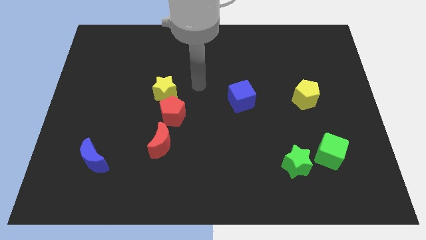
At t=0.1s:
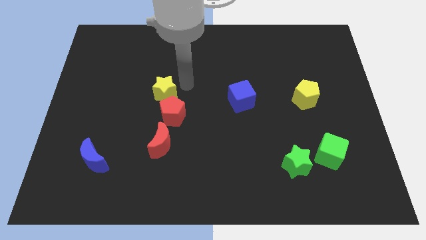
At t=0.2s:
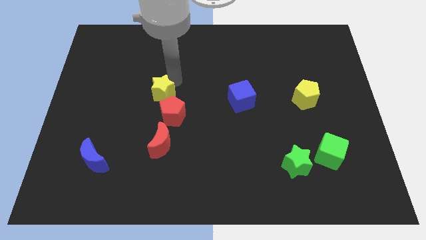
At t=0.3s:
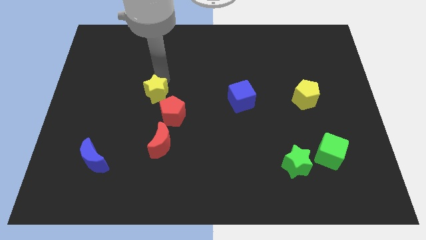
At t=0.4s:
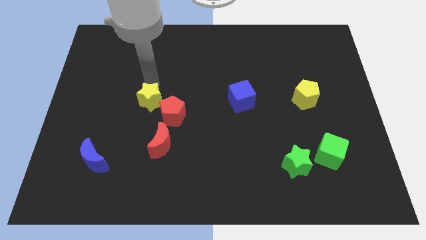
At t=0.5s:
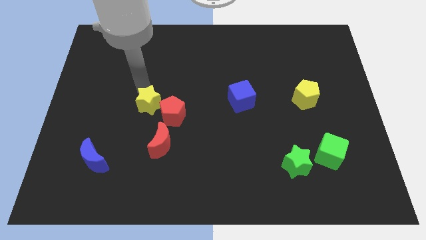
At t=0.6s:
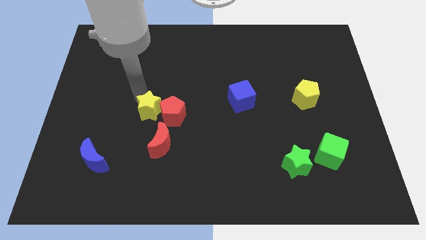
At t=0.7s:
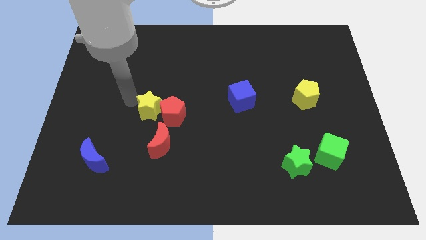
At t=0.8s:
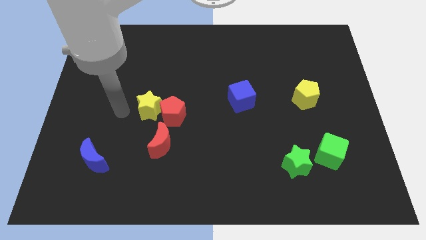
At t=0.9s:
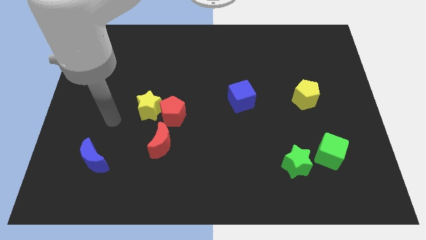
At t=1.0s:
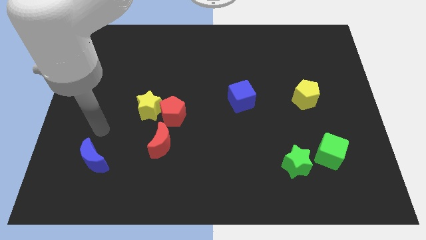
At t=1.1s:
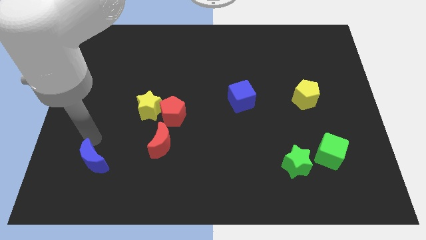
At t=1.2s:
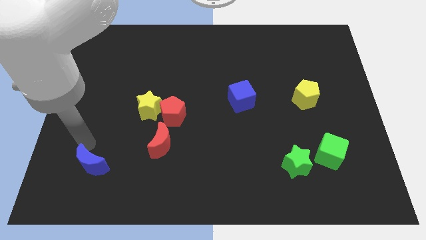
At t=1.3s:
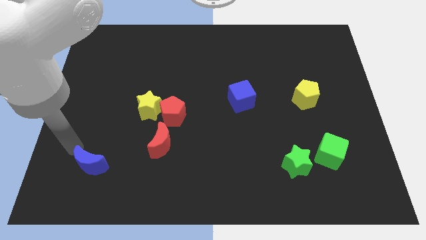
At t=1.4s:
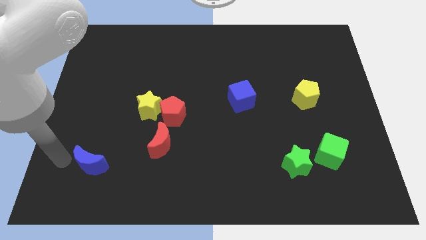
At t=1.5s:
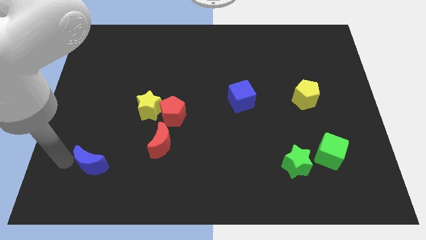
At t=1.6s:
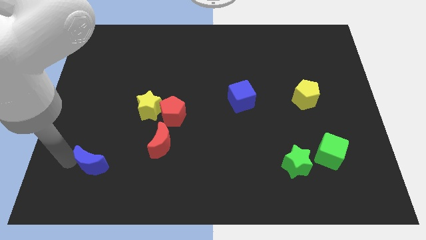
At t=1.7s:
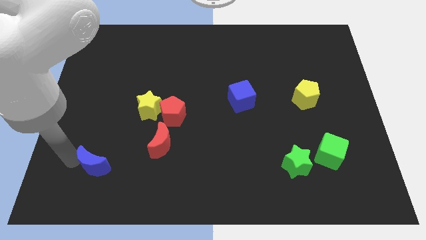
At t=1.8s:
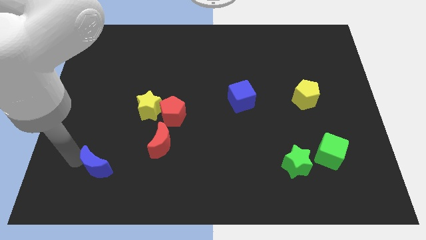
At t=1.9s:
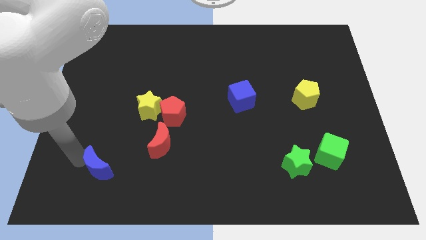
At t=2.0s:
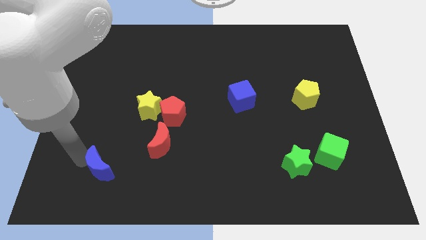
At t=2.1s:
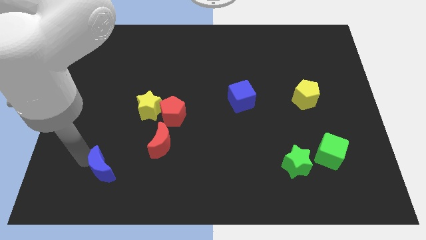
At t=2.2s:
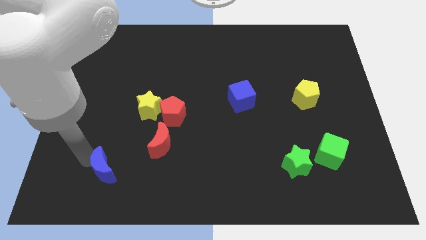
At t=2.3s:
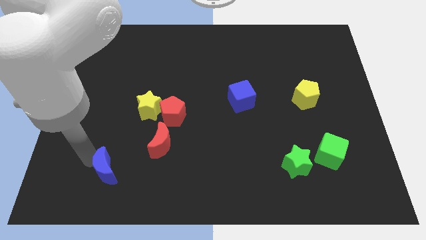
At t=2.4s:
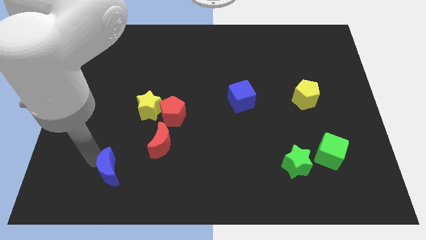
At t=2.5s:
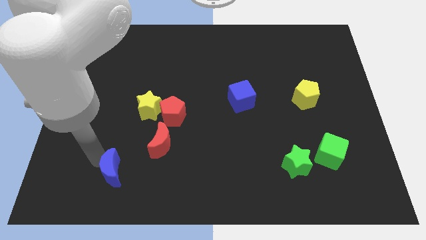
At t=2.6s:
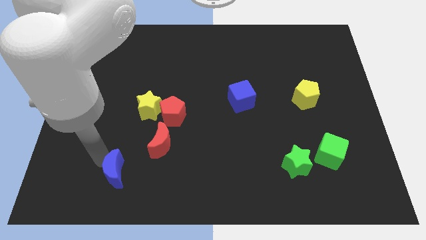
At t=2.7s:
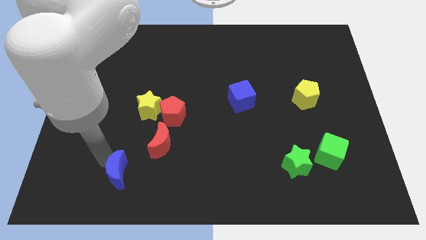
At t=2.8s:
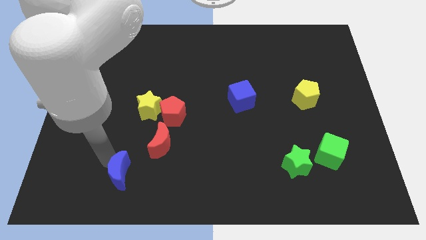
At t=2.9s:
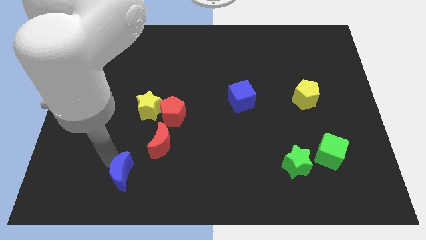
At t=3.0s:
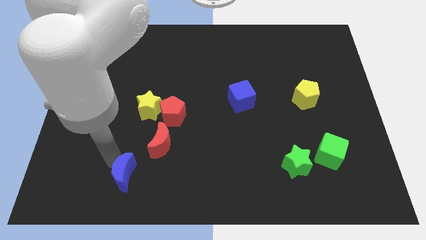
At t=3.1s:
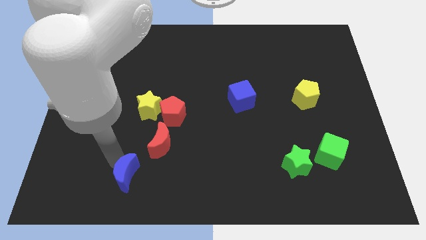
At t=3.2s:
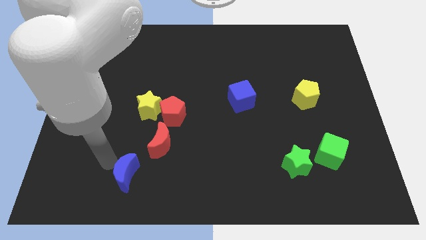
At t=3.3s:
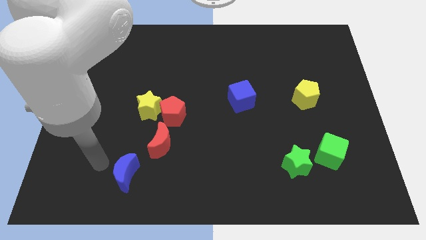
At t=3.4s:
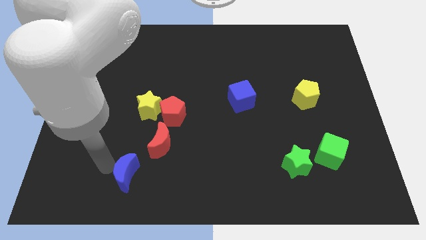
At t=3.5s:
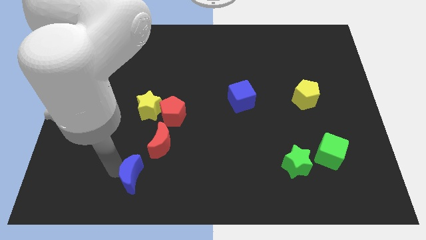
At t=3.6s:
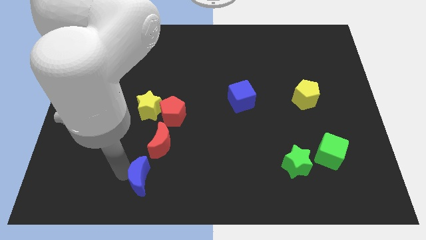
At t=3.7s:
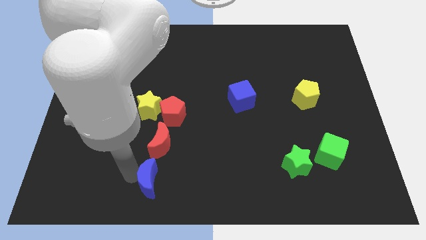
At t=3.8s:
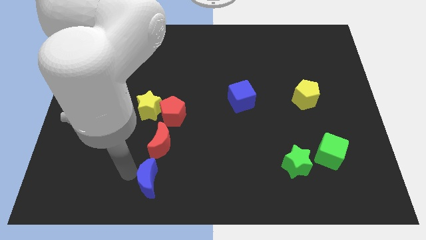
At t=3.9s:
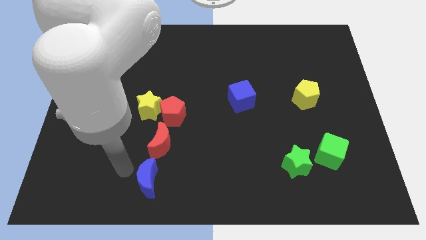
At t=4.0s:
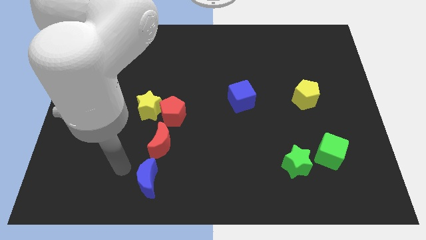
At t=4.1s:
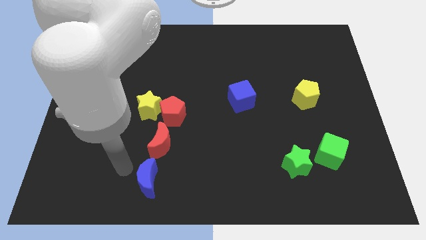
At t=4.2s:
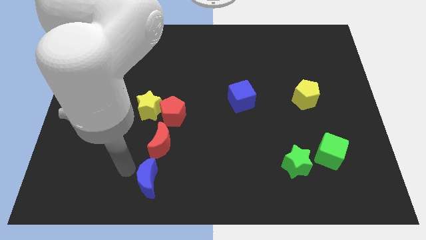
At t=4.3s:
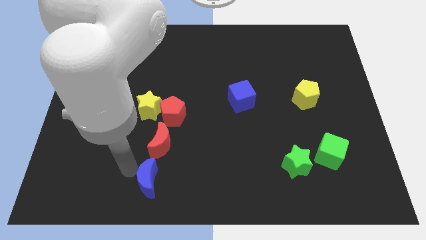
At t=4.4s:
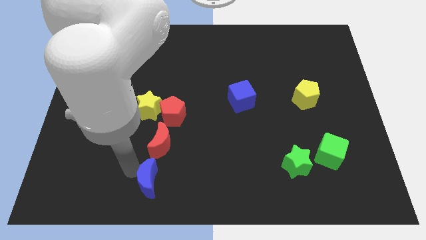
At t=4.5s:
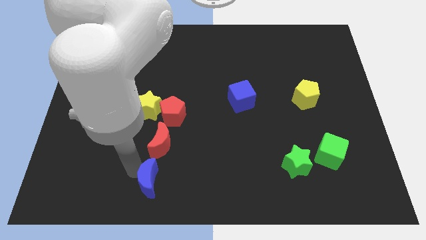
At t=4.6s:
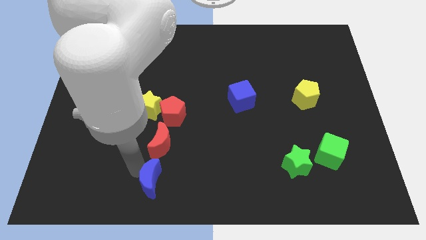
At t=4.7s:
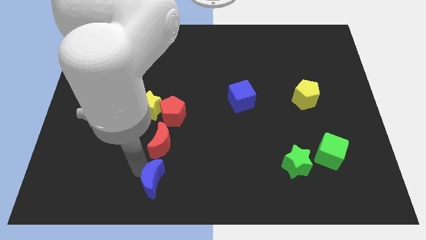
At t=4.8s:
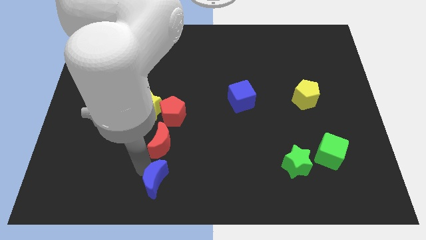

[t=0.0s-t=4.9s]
push the blue moon to the bottom

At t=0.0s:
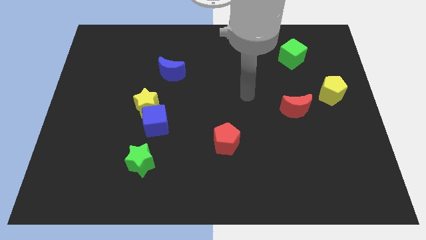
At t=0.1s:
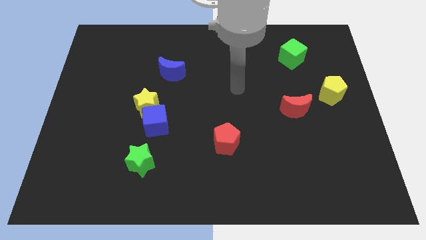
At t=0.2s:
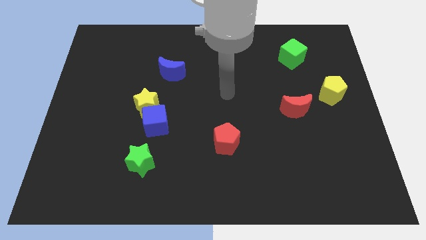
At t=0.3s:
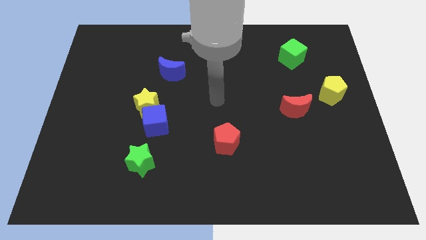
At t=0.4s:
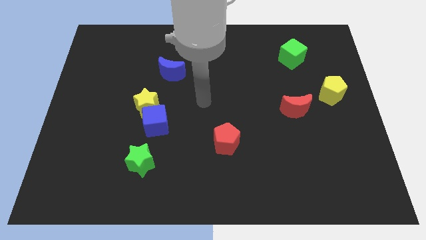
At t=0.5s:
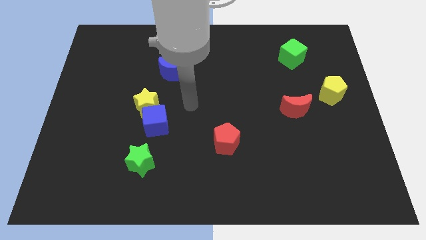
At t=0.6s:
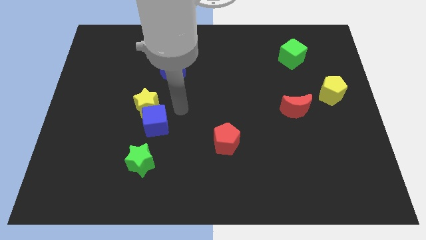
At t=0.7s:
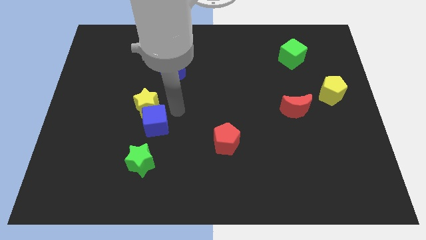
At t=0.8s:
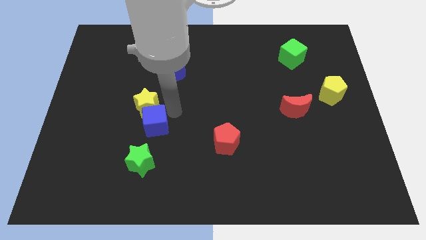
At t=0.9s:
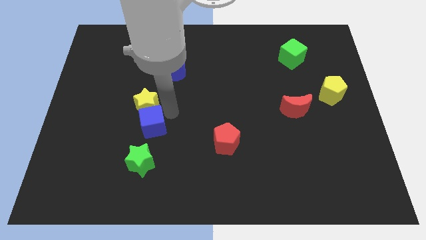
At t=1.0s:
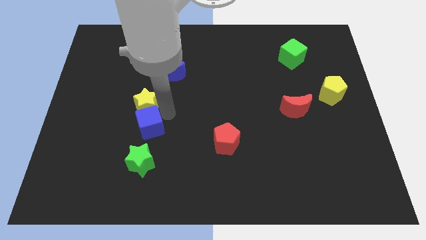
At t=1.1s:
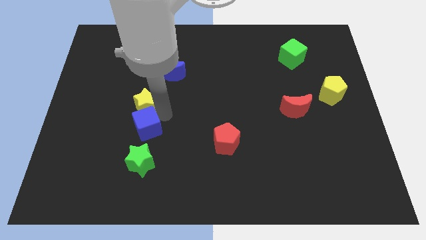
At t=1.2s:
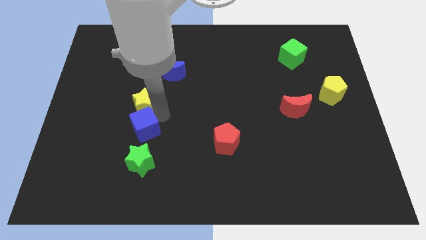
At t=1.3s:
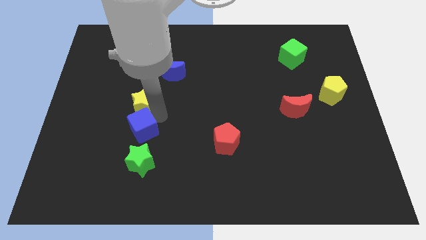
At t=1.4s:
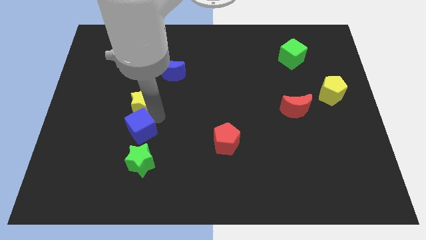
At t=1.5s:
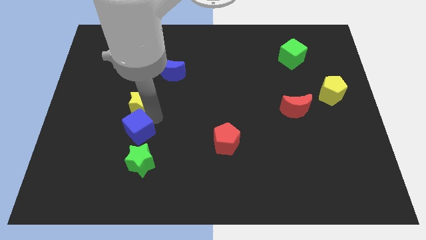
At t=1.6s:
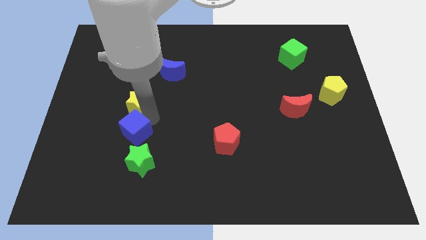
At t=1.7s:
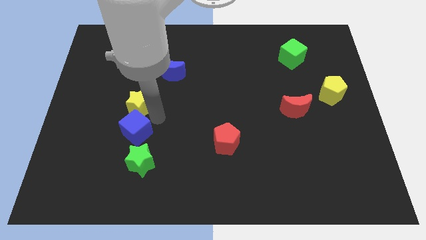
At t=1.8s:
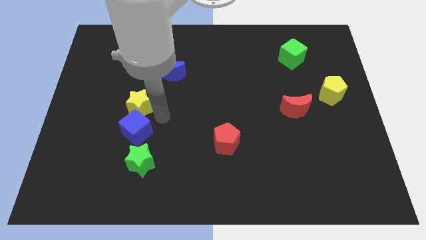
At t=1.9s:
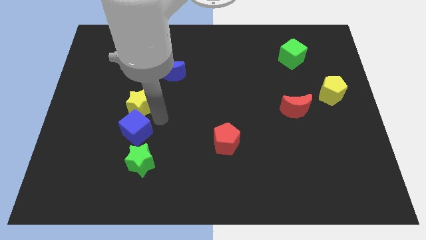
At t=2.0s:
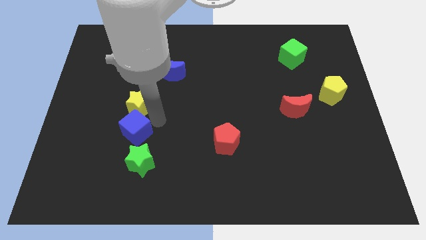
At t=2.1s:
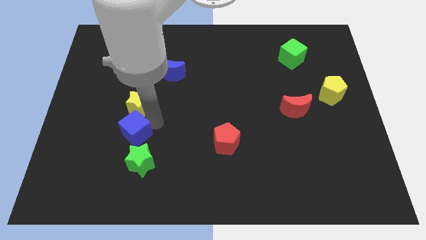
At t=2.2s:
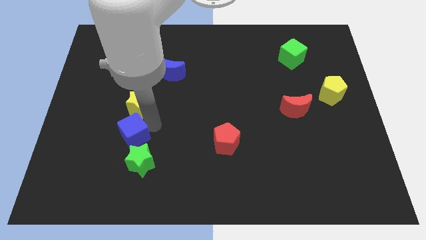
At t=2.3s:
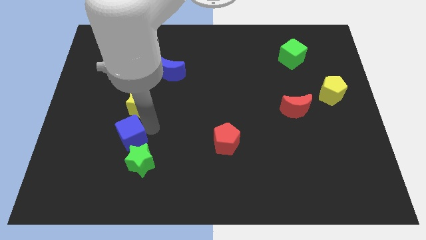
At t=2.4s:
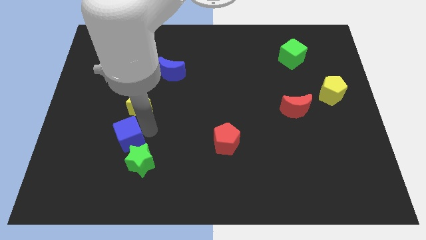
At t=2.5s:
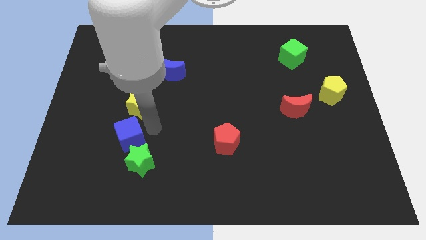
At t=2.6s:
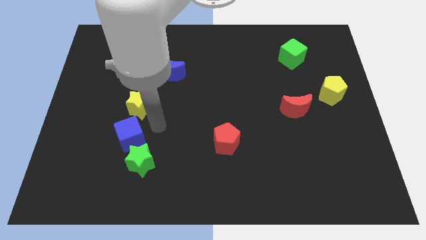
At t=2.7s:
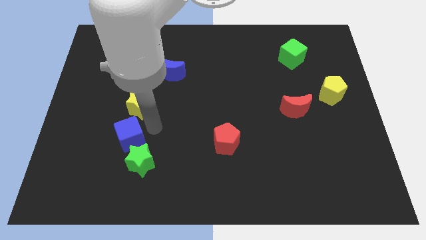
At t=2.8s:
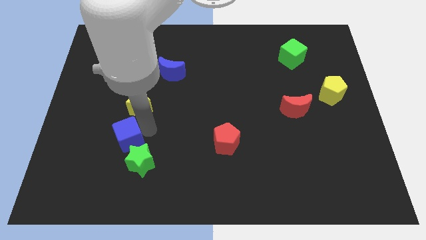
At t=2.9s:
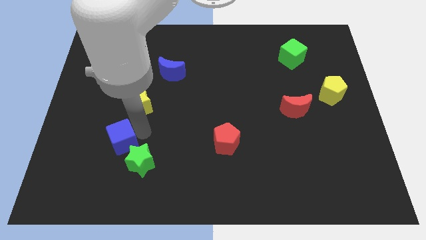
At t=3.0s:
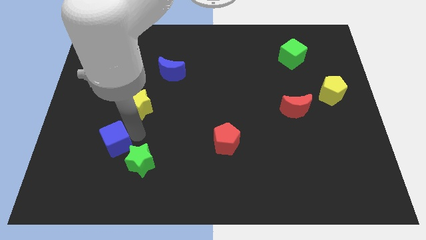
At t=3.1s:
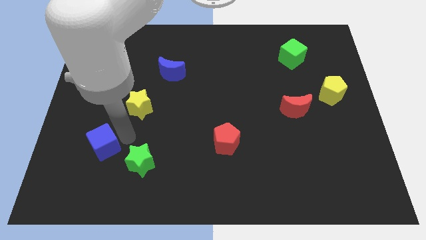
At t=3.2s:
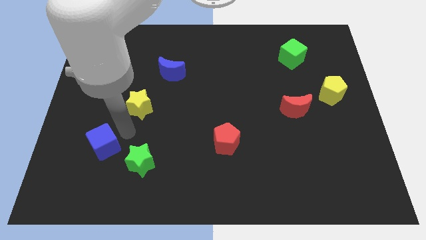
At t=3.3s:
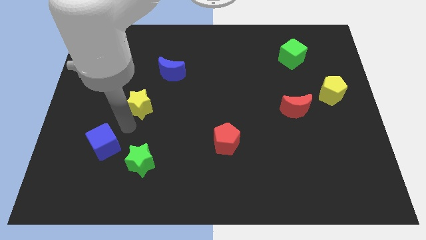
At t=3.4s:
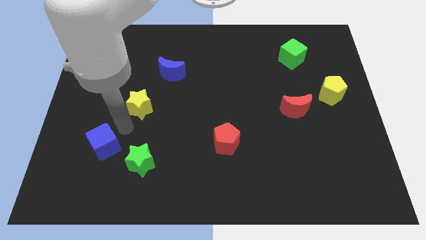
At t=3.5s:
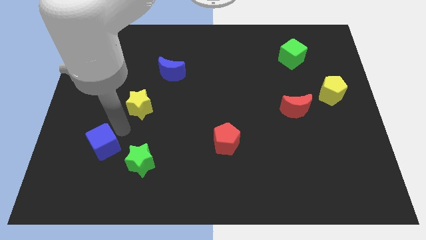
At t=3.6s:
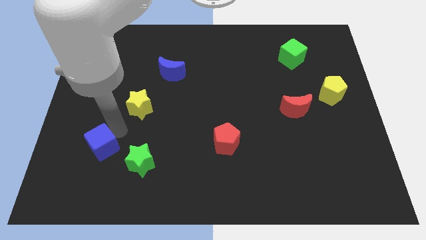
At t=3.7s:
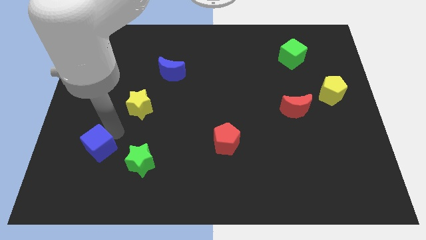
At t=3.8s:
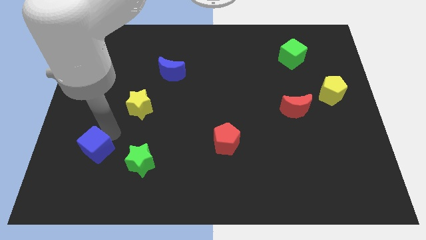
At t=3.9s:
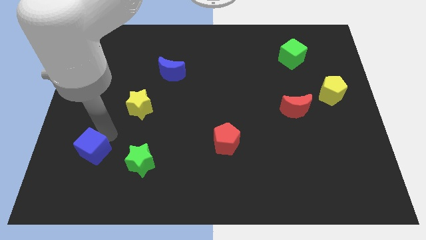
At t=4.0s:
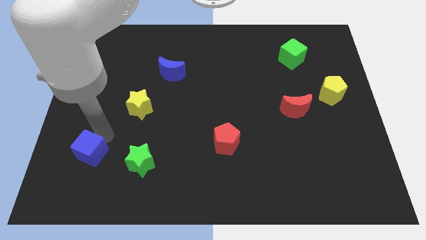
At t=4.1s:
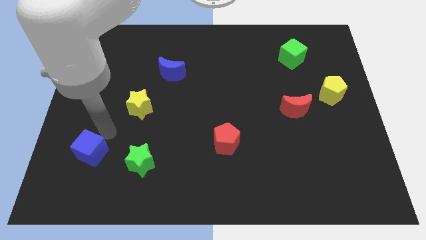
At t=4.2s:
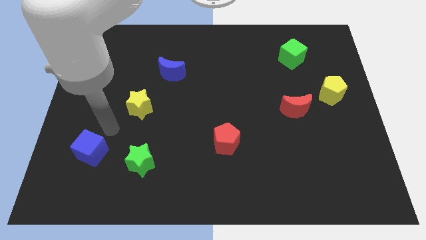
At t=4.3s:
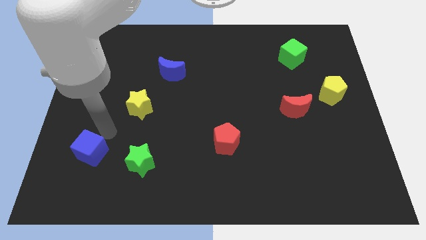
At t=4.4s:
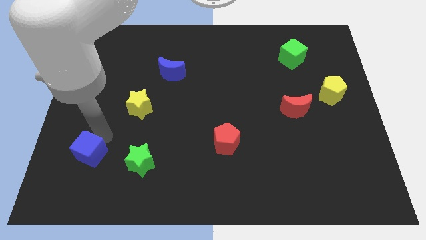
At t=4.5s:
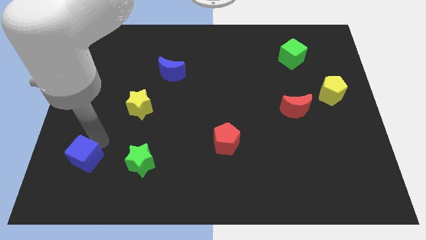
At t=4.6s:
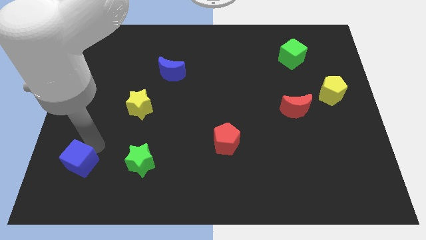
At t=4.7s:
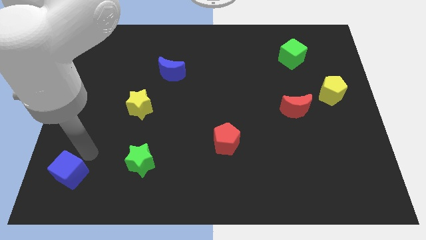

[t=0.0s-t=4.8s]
put the blue cube to the bottom left of the board
